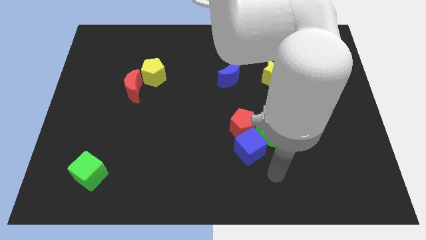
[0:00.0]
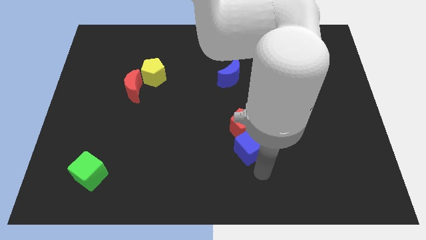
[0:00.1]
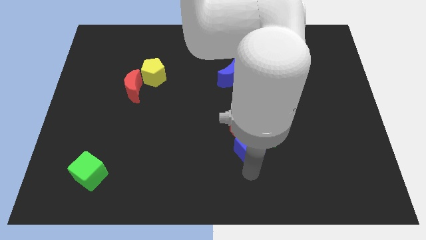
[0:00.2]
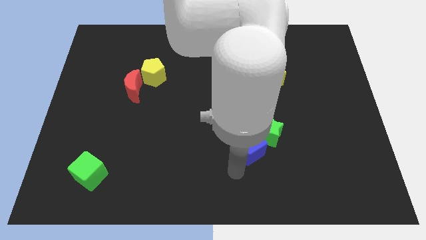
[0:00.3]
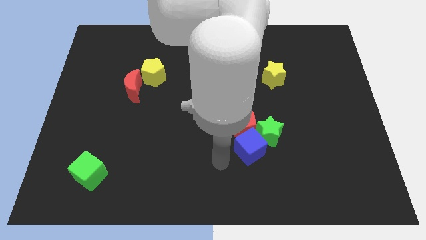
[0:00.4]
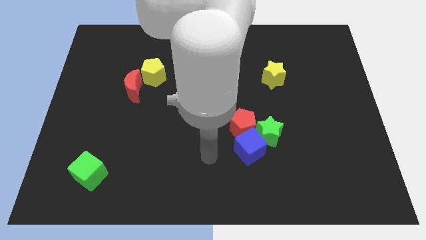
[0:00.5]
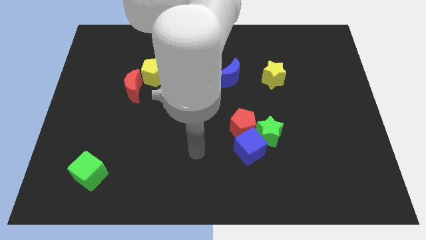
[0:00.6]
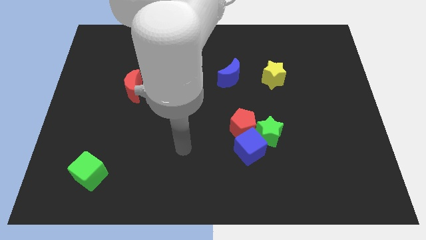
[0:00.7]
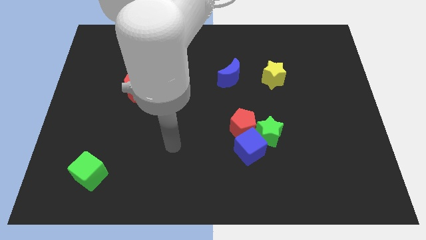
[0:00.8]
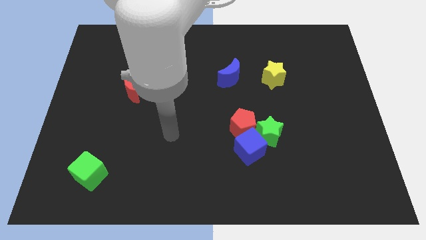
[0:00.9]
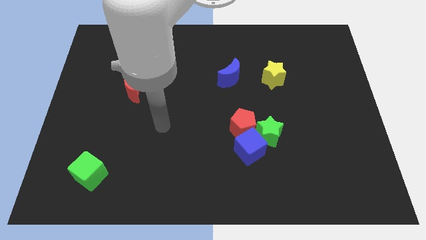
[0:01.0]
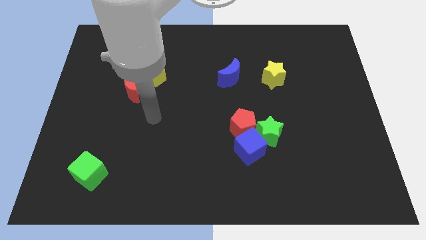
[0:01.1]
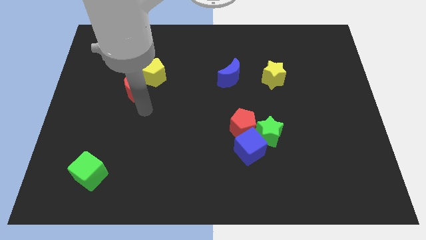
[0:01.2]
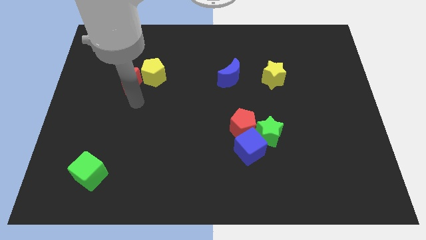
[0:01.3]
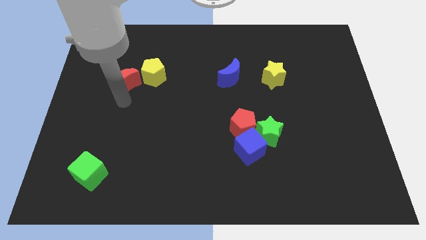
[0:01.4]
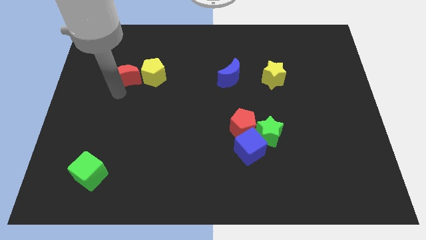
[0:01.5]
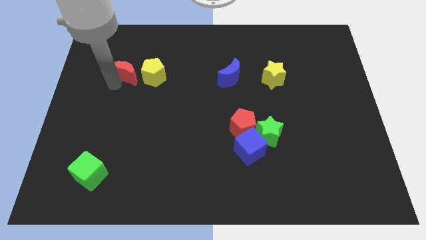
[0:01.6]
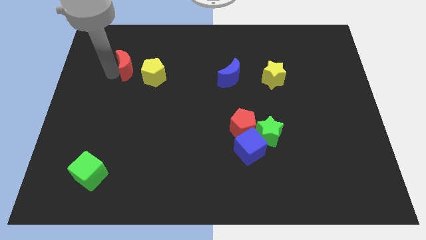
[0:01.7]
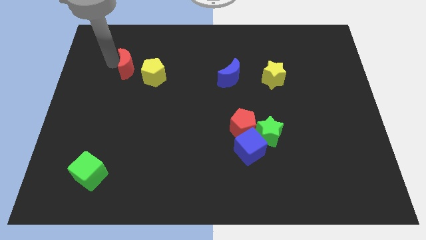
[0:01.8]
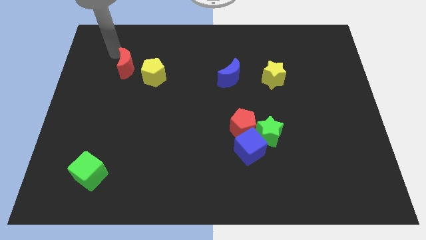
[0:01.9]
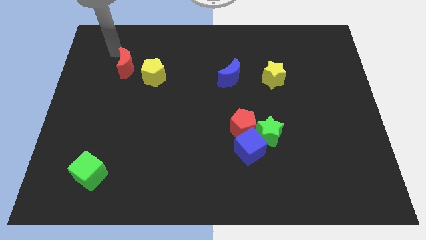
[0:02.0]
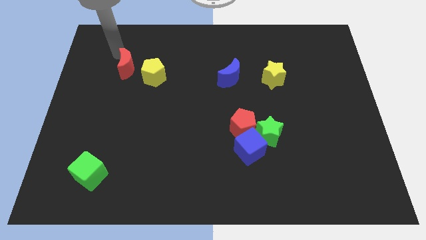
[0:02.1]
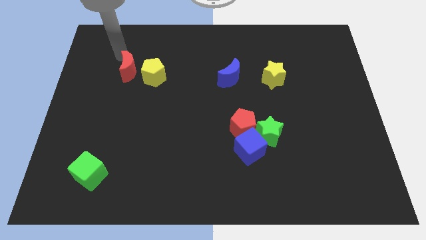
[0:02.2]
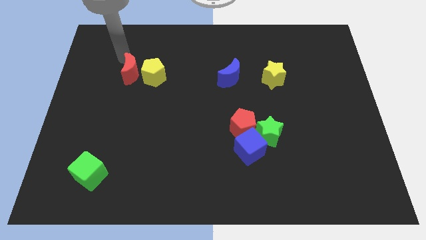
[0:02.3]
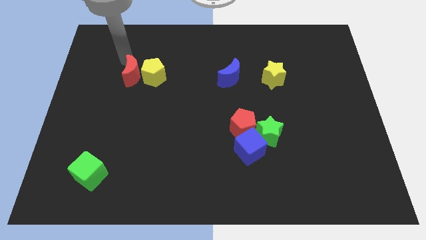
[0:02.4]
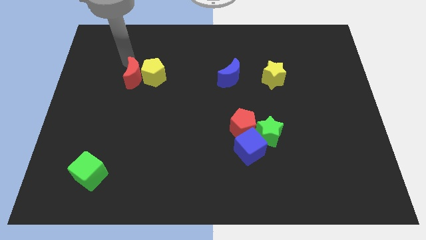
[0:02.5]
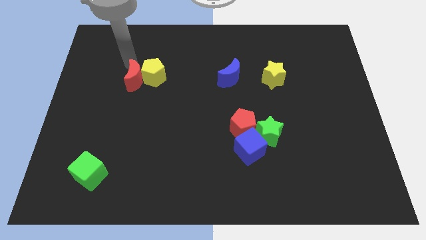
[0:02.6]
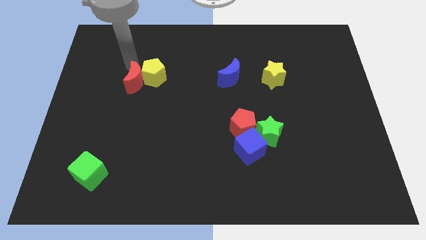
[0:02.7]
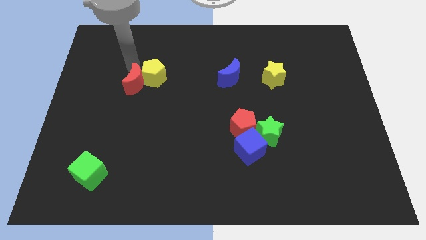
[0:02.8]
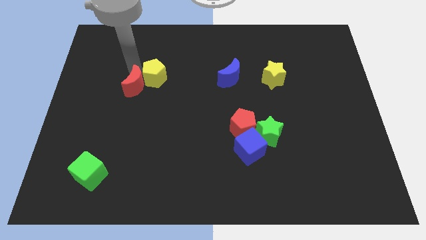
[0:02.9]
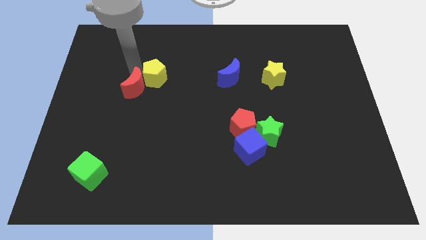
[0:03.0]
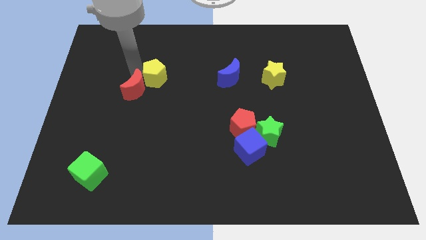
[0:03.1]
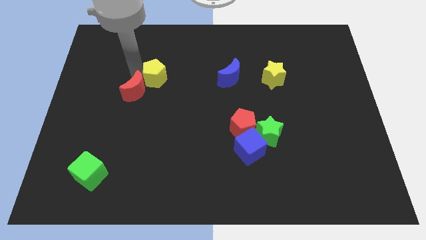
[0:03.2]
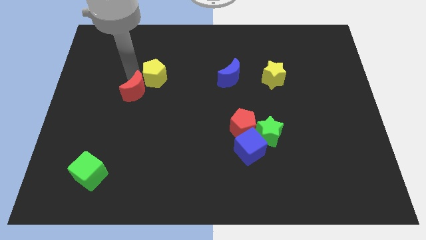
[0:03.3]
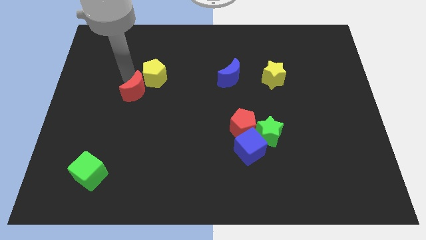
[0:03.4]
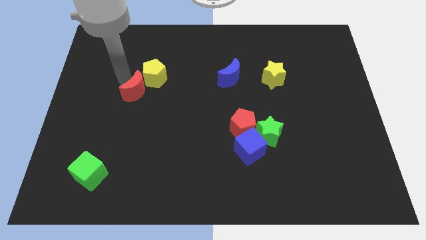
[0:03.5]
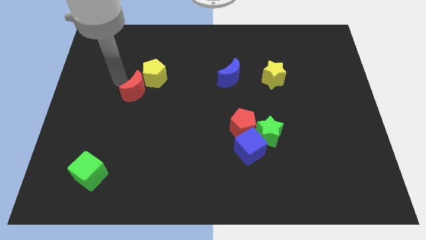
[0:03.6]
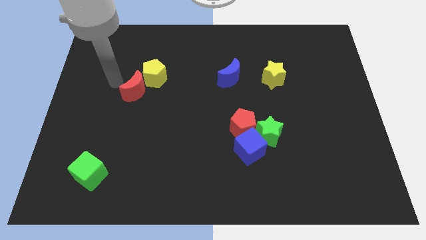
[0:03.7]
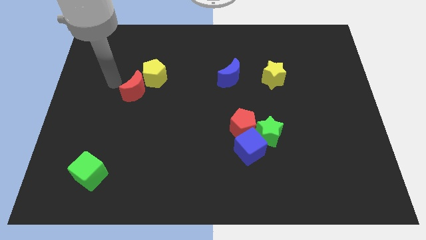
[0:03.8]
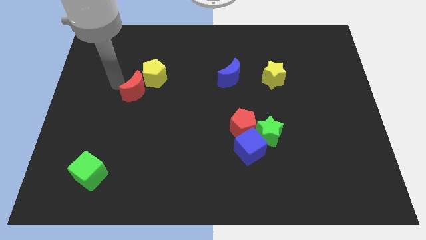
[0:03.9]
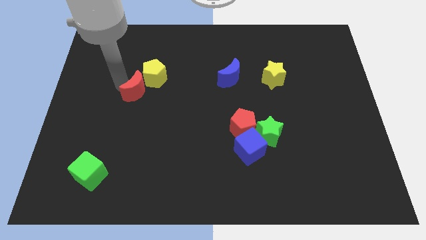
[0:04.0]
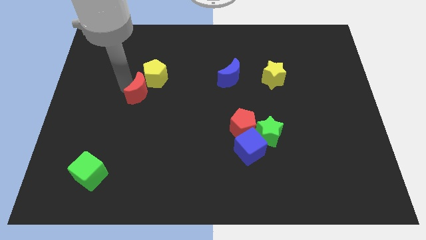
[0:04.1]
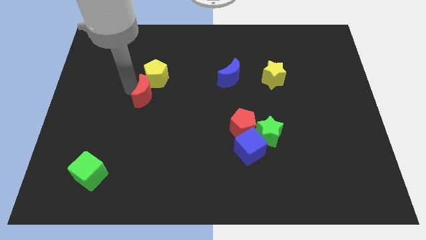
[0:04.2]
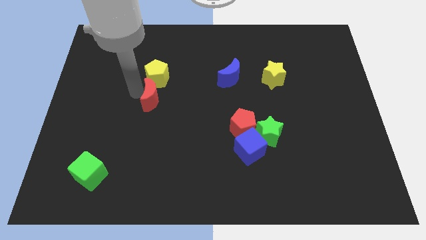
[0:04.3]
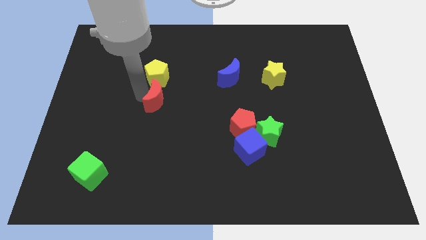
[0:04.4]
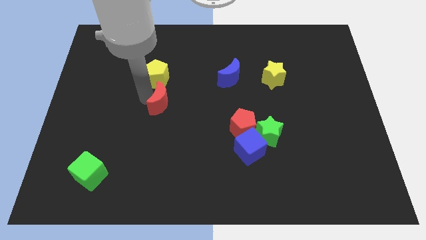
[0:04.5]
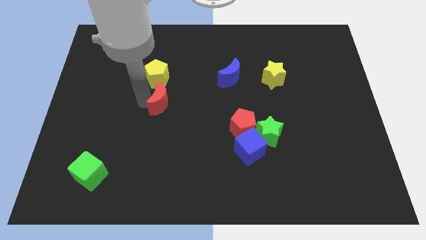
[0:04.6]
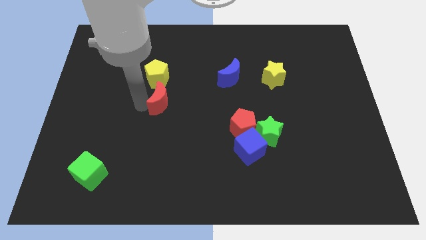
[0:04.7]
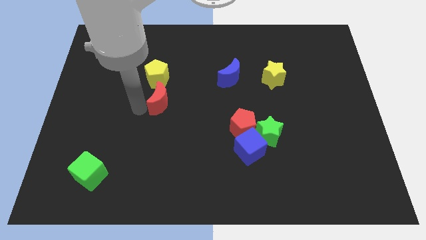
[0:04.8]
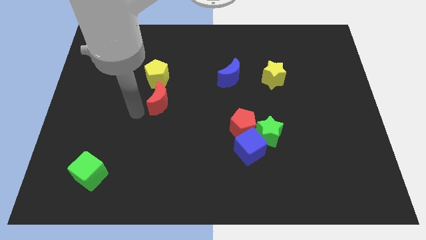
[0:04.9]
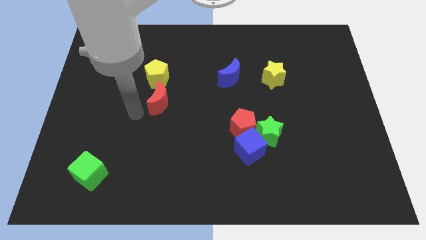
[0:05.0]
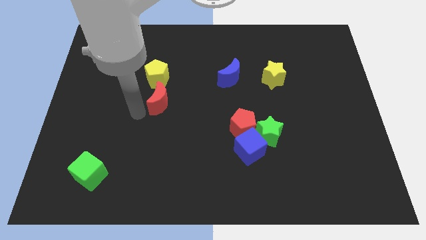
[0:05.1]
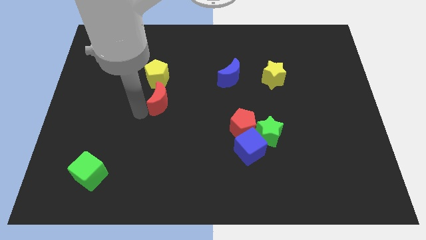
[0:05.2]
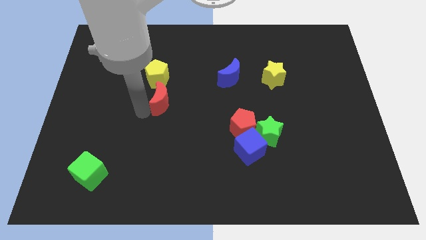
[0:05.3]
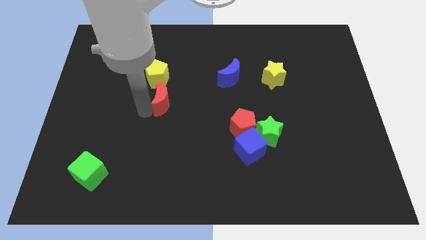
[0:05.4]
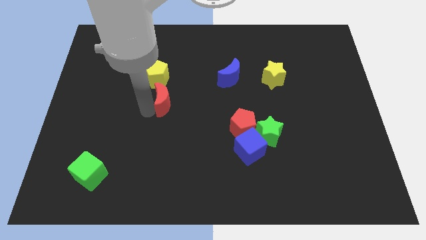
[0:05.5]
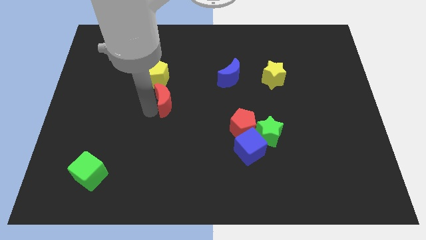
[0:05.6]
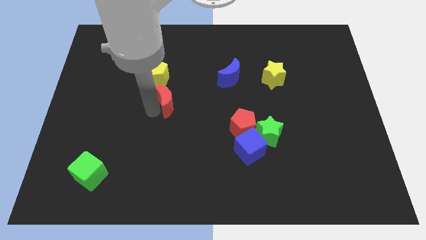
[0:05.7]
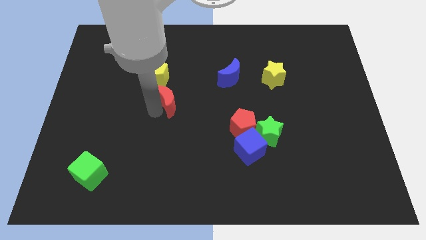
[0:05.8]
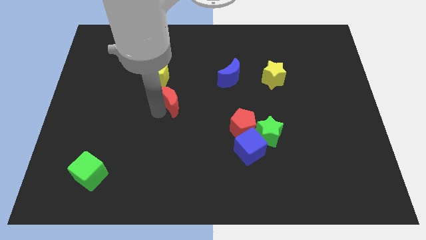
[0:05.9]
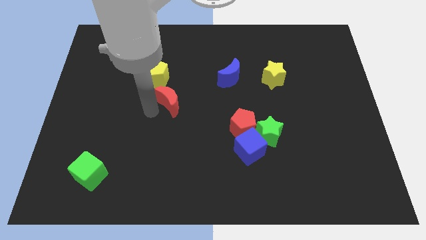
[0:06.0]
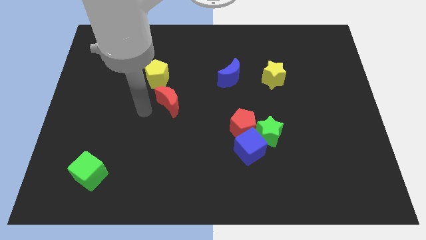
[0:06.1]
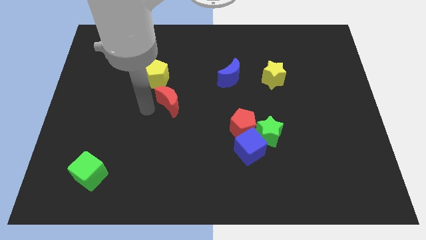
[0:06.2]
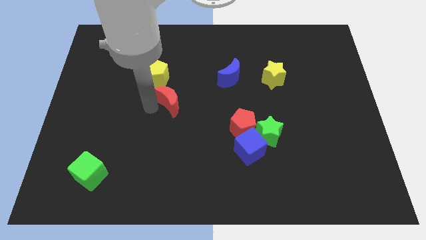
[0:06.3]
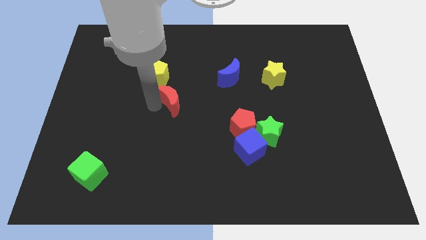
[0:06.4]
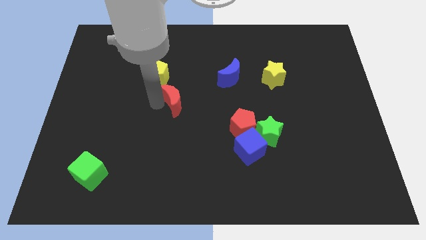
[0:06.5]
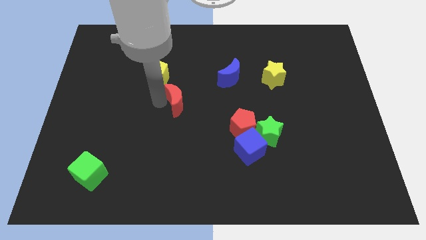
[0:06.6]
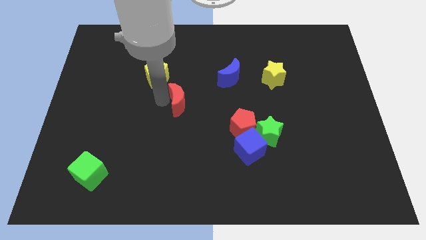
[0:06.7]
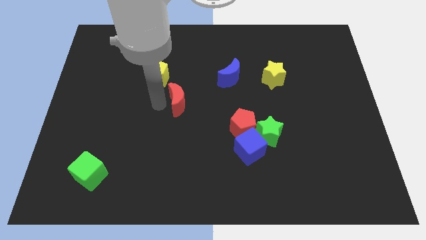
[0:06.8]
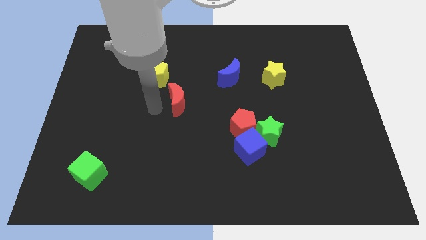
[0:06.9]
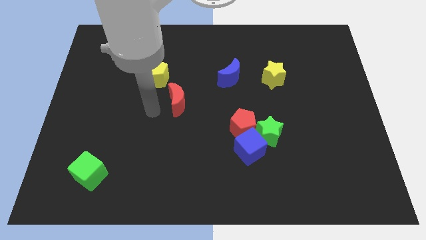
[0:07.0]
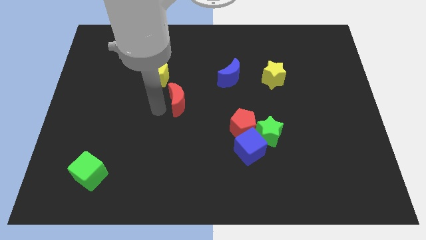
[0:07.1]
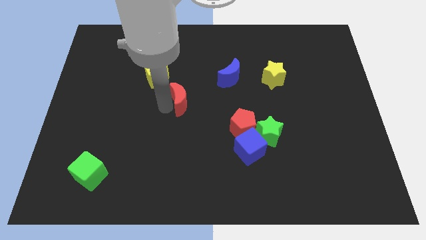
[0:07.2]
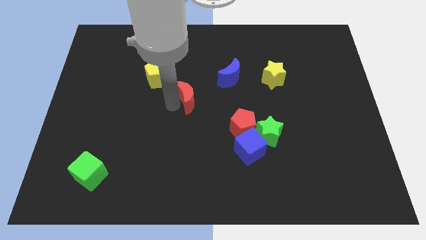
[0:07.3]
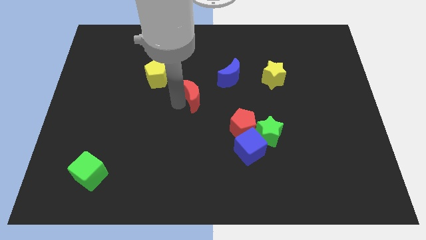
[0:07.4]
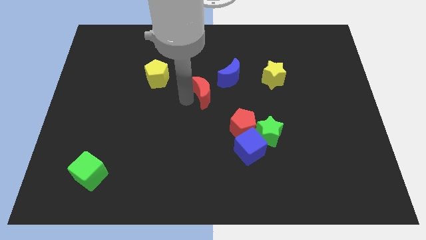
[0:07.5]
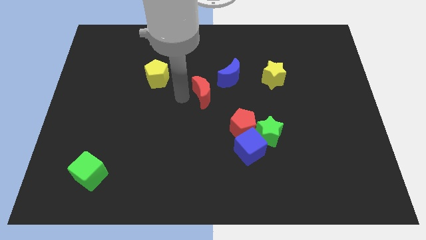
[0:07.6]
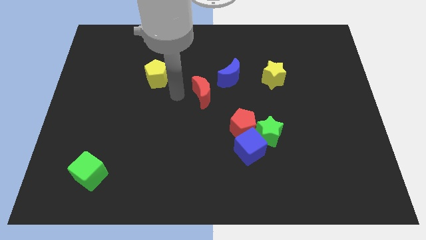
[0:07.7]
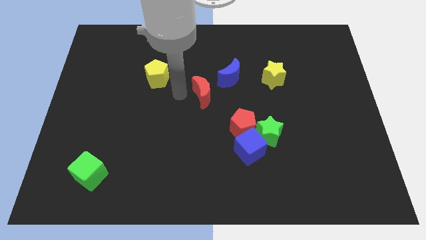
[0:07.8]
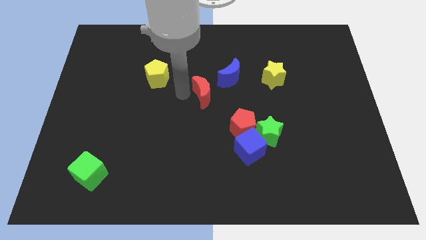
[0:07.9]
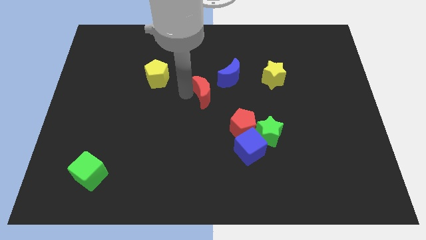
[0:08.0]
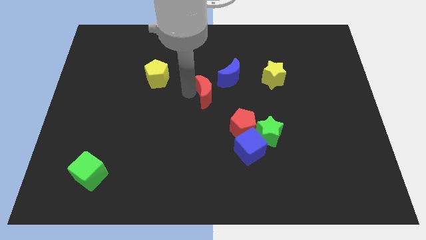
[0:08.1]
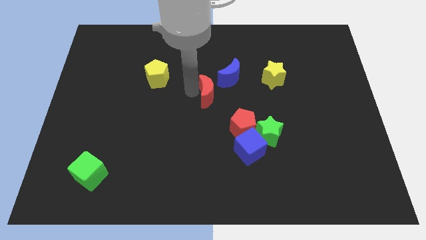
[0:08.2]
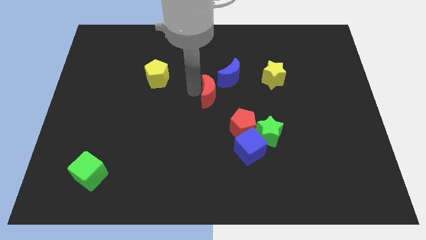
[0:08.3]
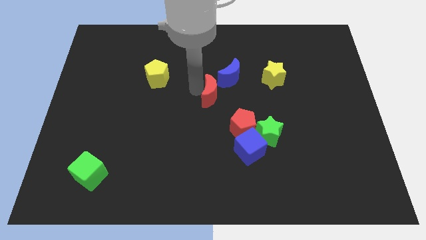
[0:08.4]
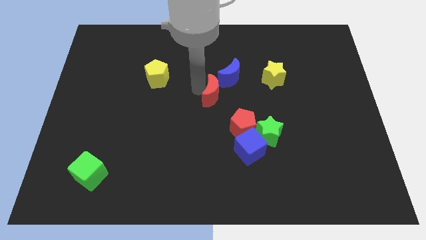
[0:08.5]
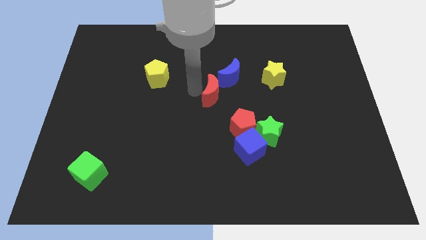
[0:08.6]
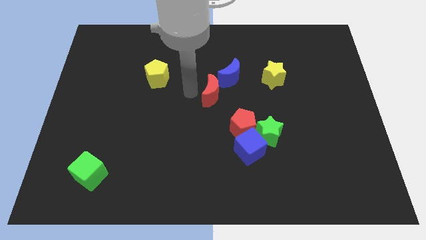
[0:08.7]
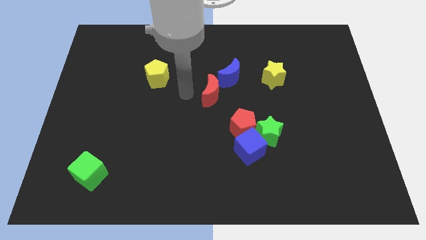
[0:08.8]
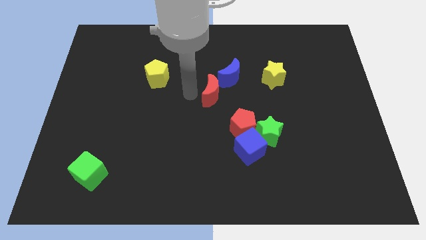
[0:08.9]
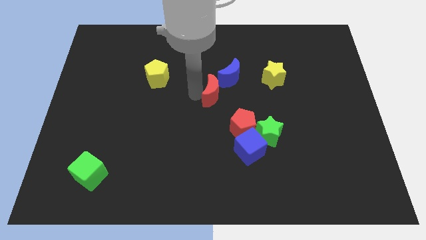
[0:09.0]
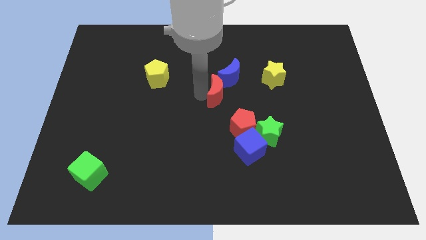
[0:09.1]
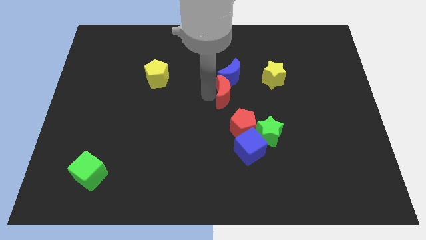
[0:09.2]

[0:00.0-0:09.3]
push the red moon to the top side of the red pentagon
